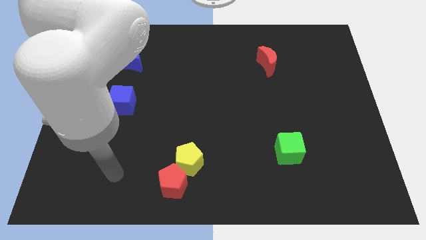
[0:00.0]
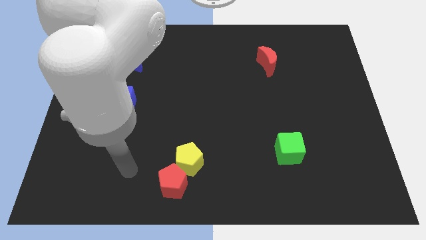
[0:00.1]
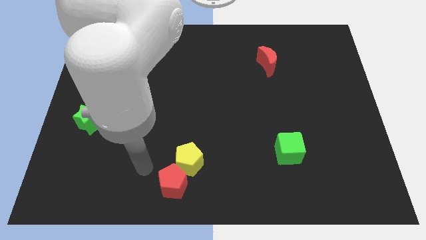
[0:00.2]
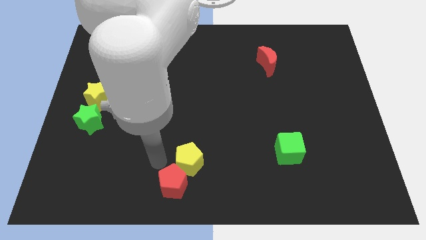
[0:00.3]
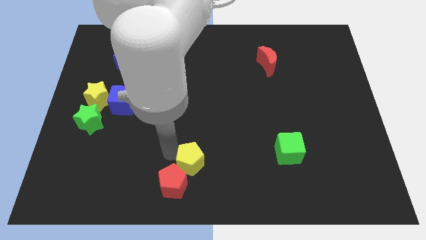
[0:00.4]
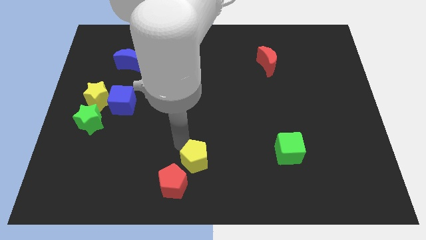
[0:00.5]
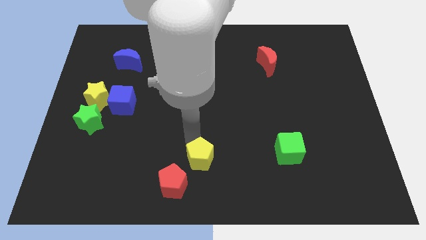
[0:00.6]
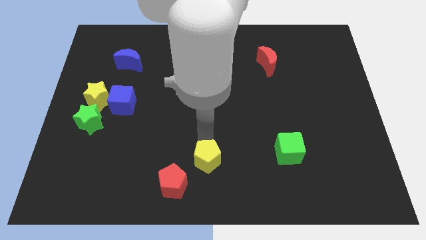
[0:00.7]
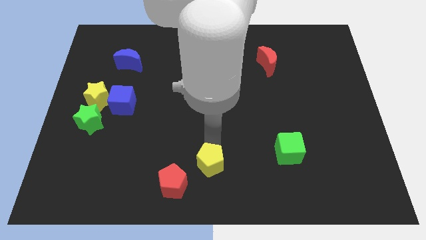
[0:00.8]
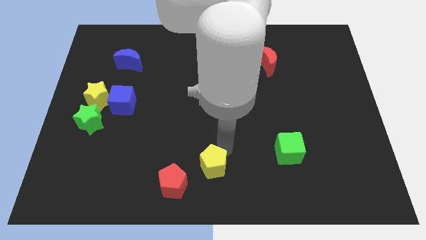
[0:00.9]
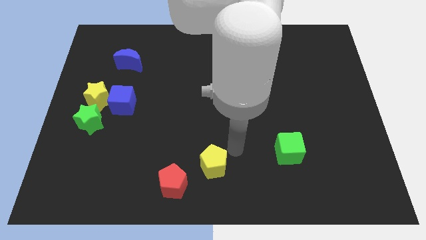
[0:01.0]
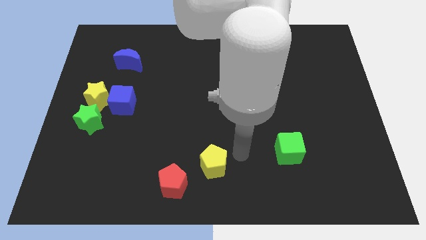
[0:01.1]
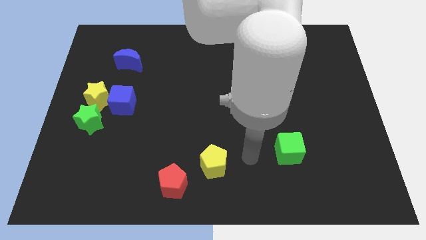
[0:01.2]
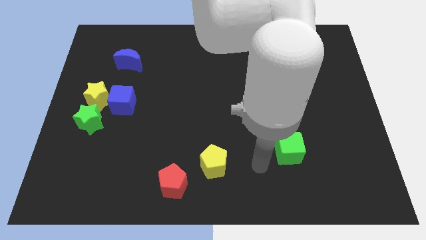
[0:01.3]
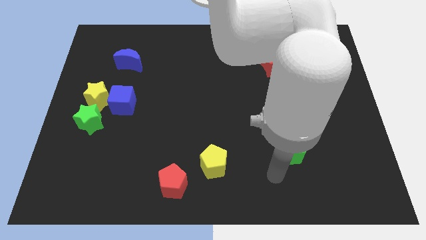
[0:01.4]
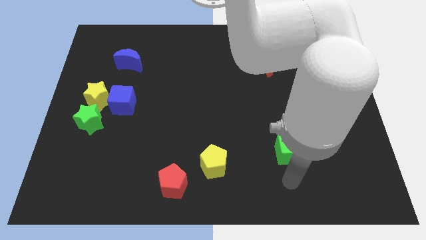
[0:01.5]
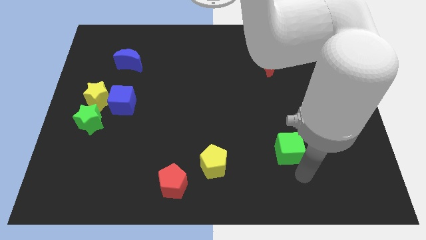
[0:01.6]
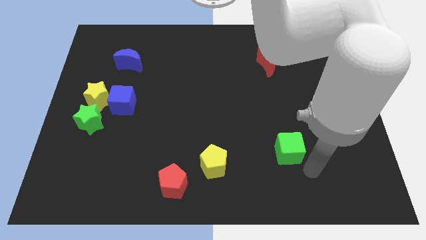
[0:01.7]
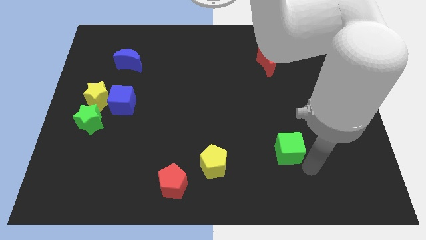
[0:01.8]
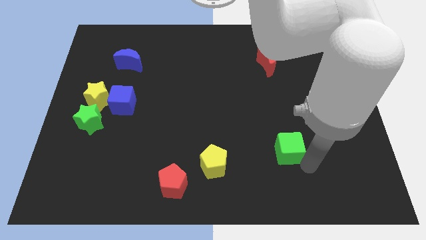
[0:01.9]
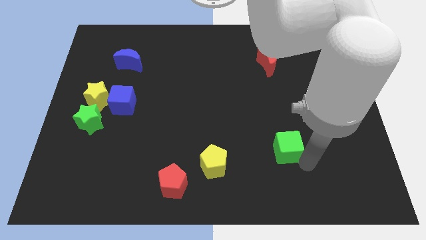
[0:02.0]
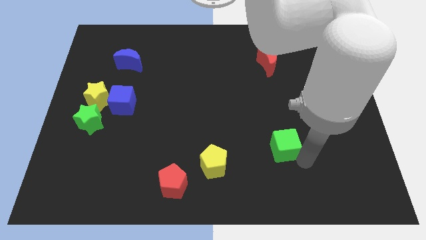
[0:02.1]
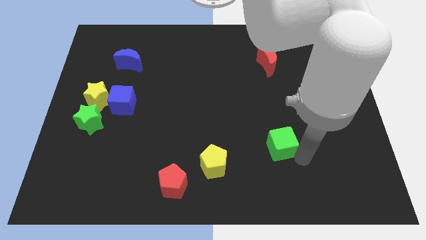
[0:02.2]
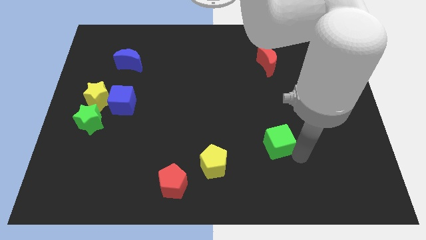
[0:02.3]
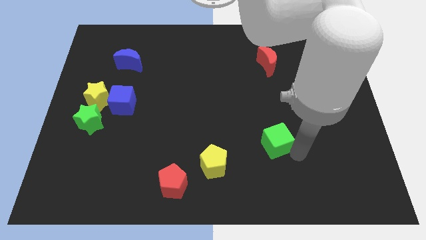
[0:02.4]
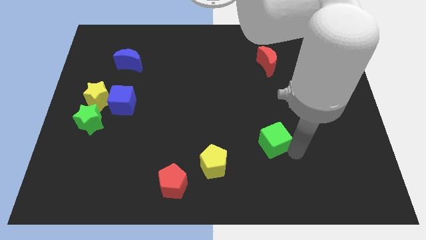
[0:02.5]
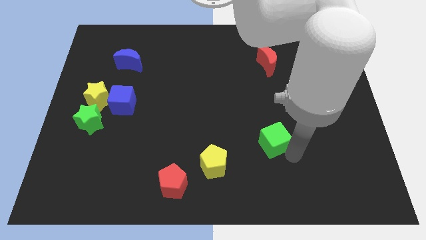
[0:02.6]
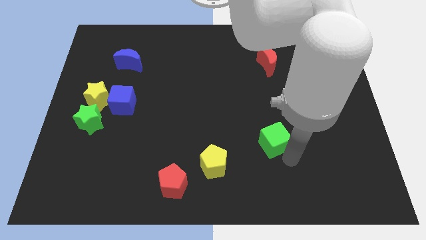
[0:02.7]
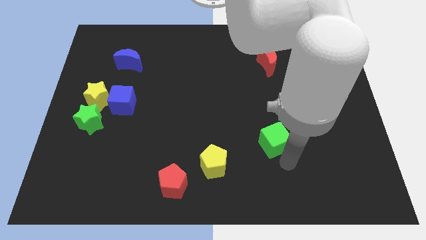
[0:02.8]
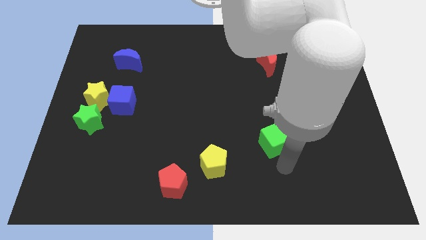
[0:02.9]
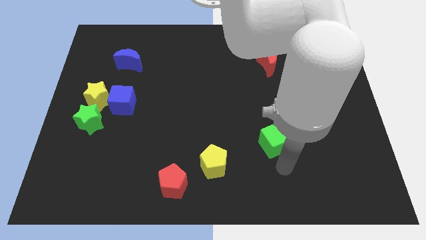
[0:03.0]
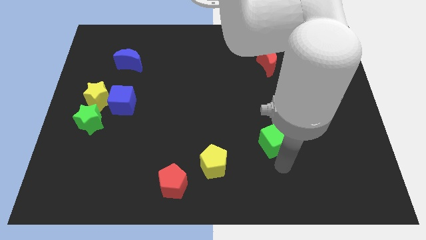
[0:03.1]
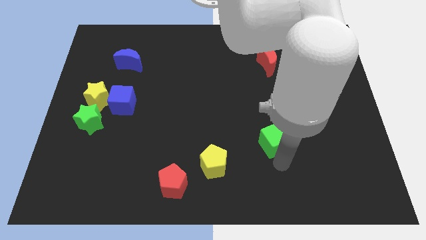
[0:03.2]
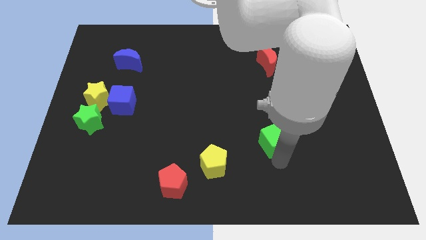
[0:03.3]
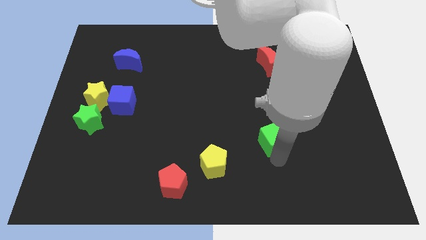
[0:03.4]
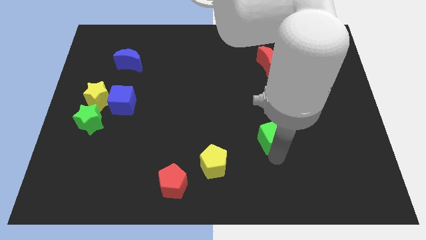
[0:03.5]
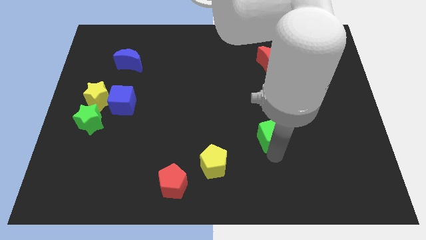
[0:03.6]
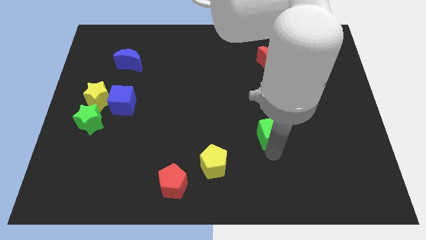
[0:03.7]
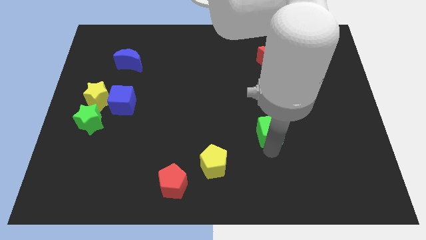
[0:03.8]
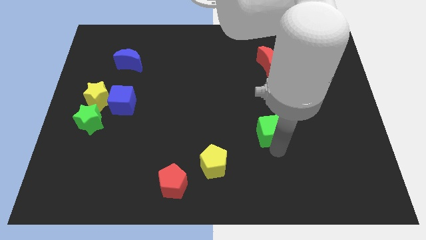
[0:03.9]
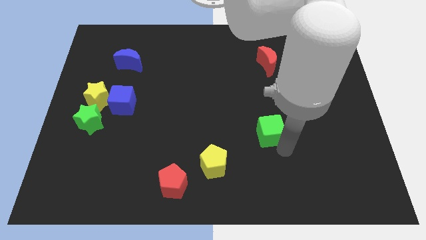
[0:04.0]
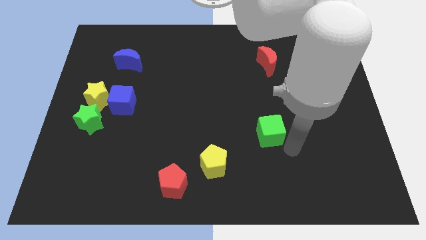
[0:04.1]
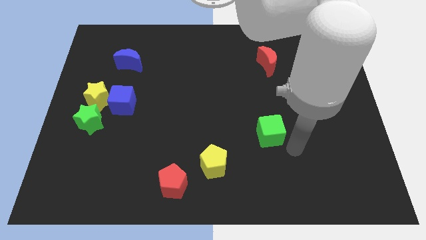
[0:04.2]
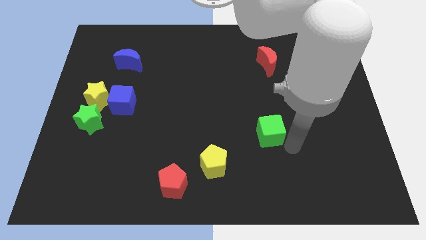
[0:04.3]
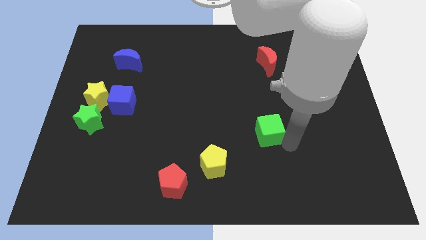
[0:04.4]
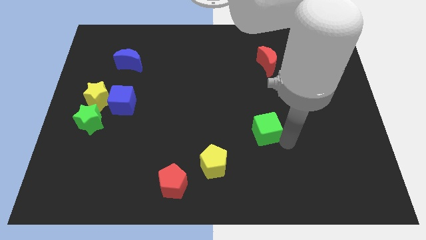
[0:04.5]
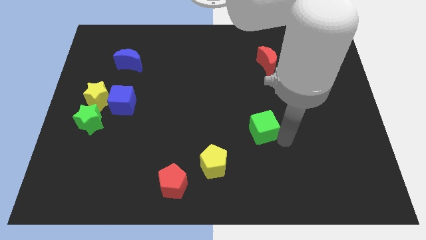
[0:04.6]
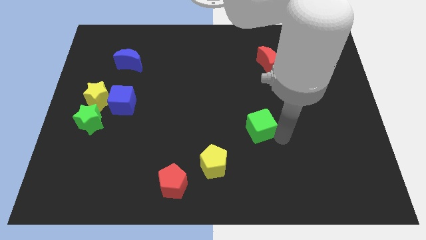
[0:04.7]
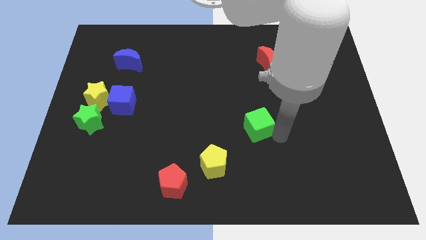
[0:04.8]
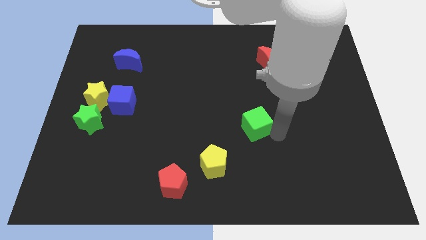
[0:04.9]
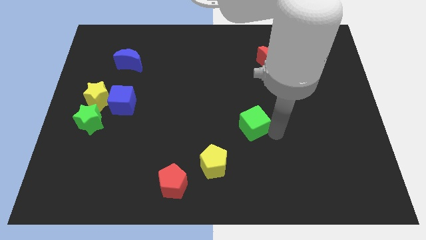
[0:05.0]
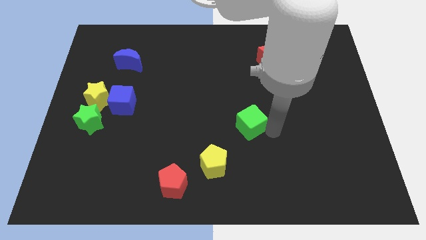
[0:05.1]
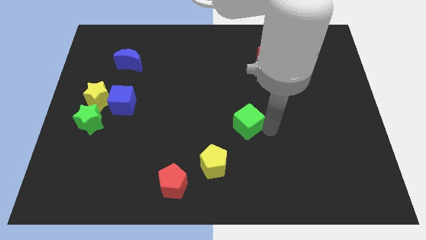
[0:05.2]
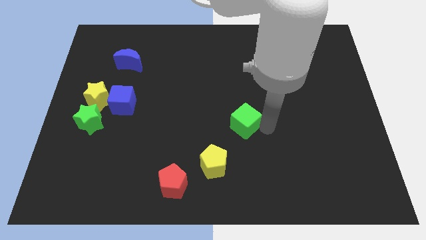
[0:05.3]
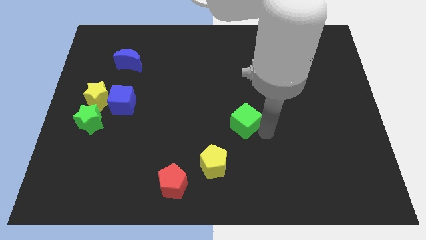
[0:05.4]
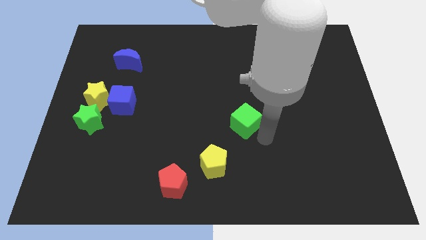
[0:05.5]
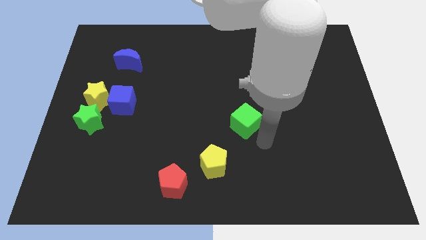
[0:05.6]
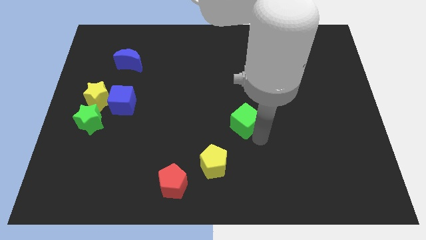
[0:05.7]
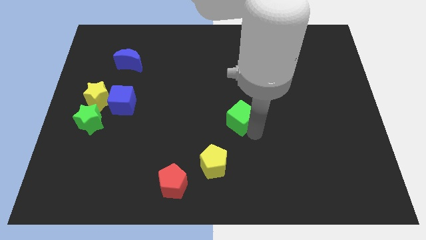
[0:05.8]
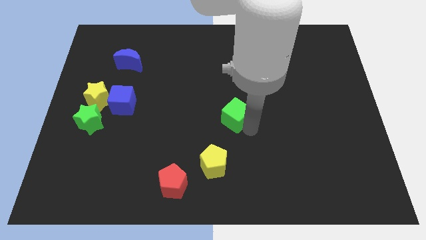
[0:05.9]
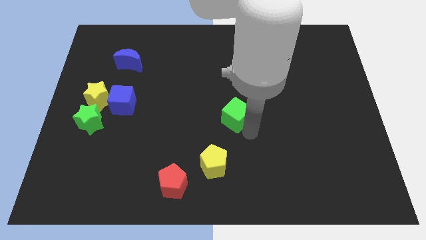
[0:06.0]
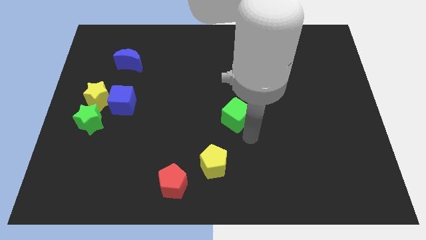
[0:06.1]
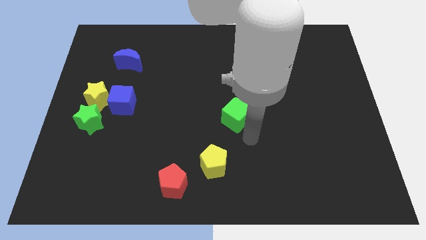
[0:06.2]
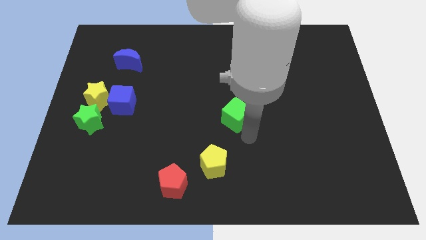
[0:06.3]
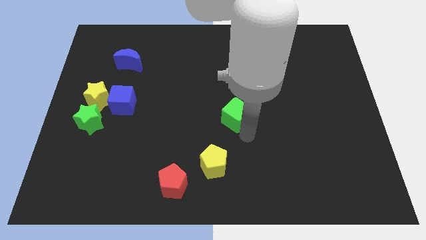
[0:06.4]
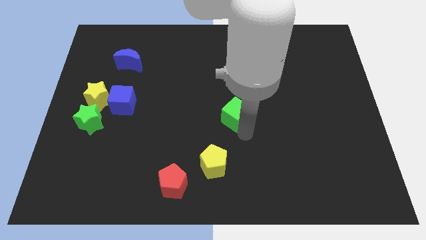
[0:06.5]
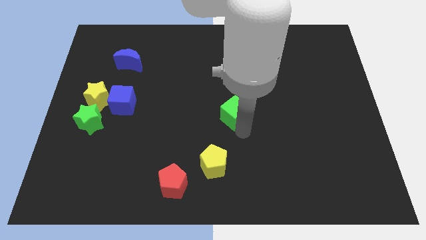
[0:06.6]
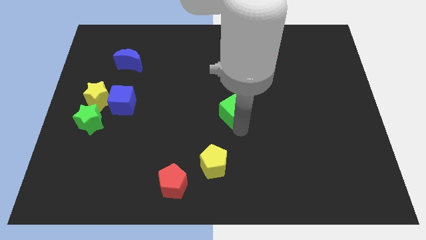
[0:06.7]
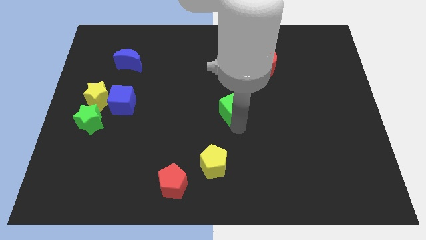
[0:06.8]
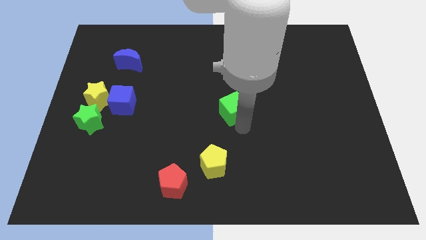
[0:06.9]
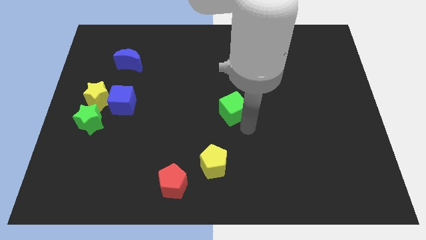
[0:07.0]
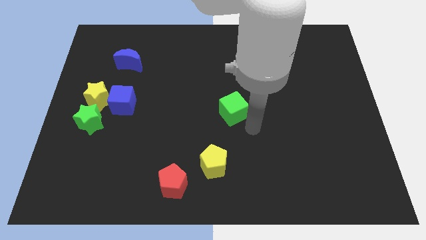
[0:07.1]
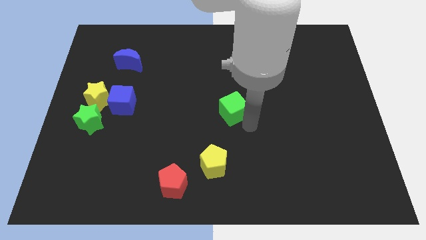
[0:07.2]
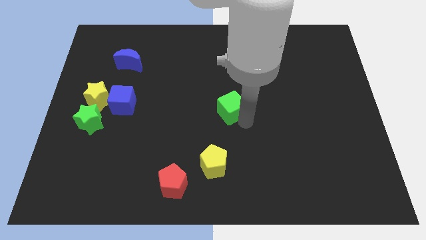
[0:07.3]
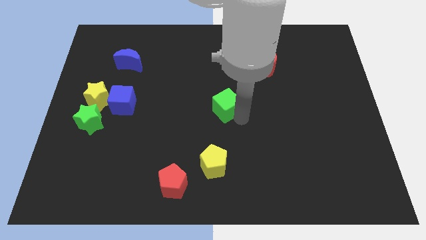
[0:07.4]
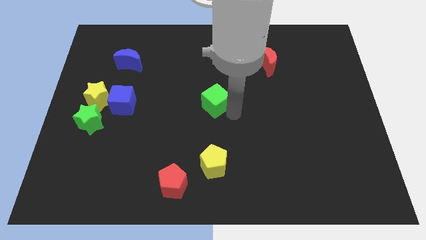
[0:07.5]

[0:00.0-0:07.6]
slide the green cube upwards and left diagonally

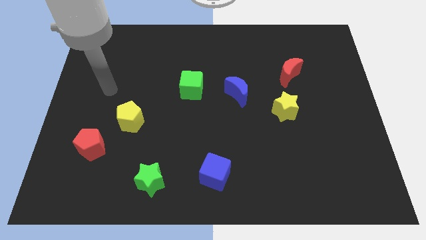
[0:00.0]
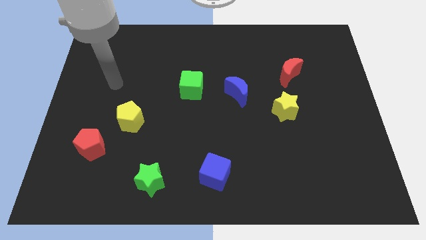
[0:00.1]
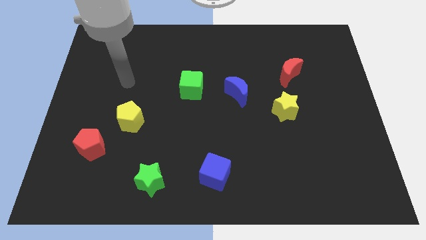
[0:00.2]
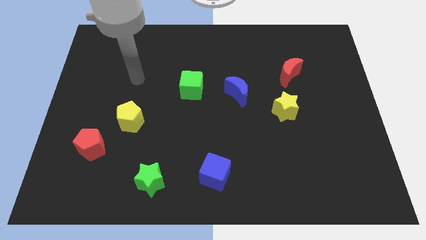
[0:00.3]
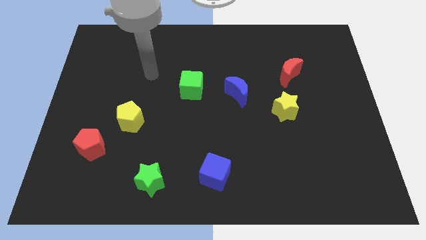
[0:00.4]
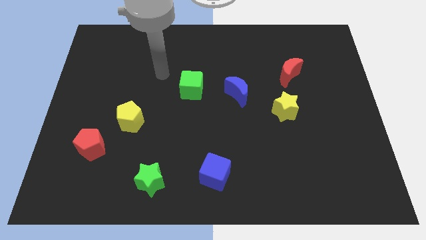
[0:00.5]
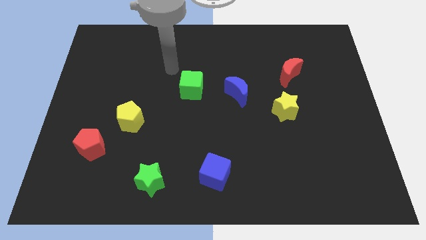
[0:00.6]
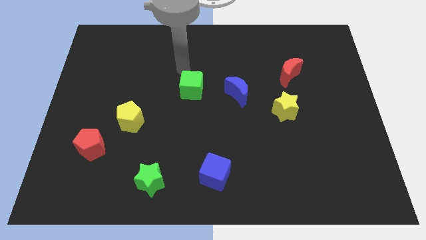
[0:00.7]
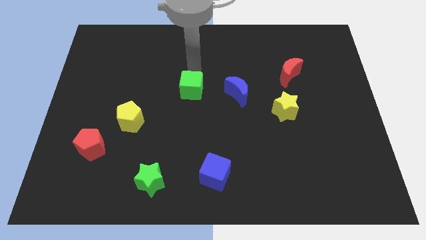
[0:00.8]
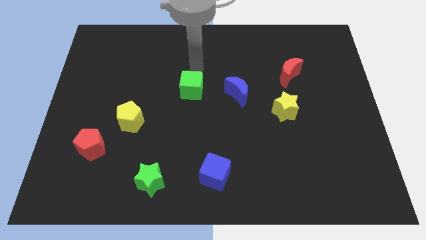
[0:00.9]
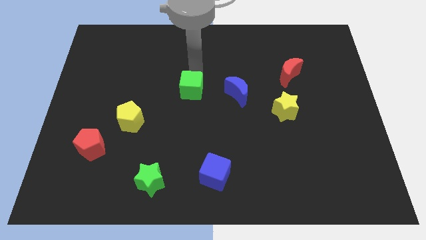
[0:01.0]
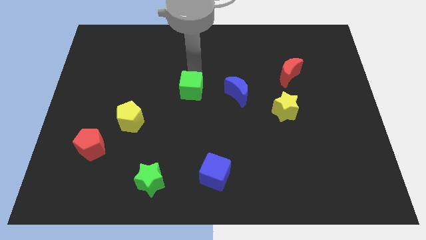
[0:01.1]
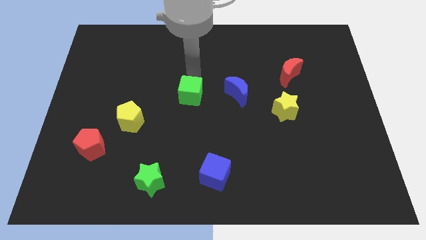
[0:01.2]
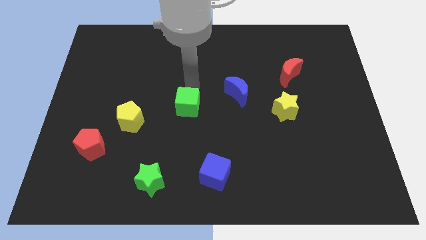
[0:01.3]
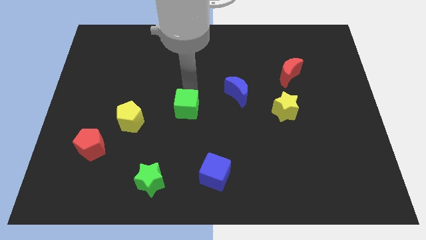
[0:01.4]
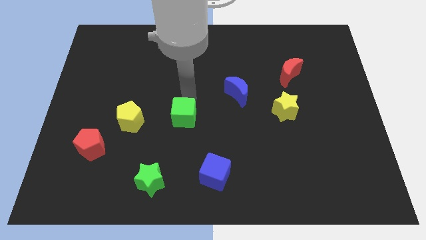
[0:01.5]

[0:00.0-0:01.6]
move the green cube downwards somewhat
